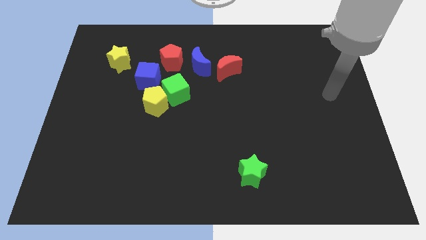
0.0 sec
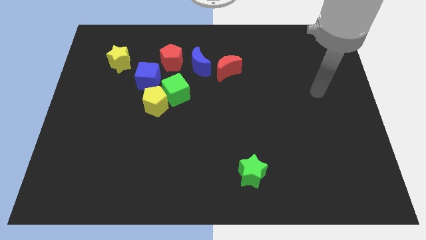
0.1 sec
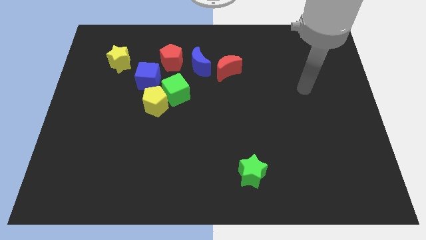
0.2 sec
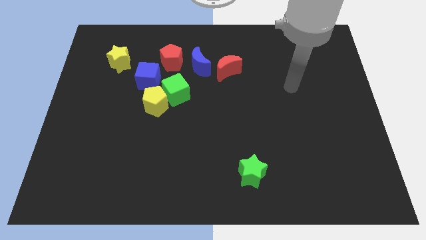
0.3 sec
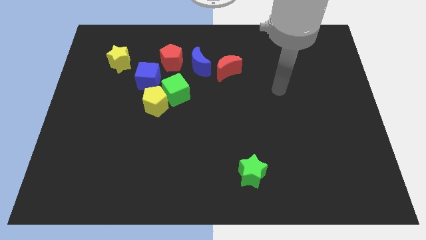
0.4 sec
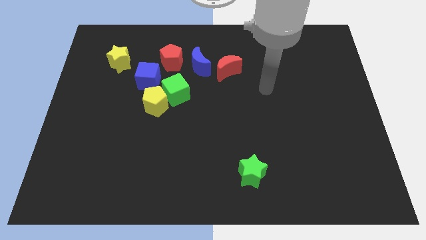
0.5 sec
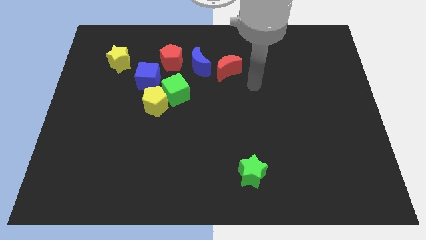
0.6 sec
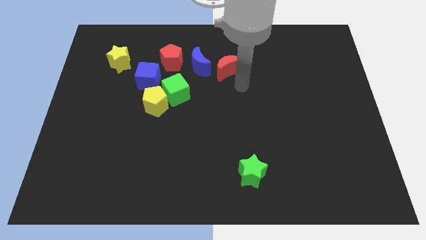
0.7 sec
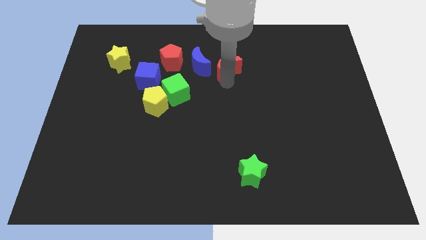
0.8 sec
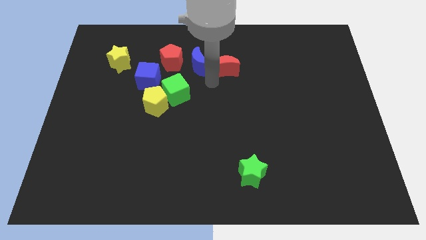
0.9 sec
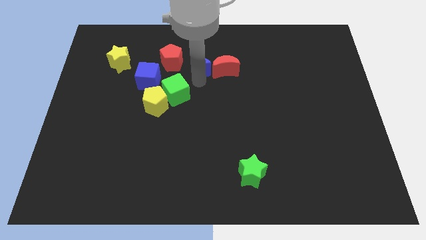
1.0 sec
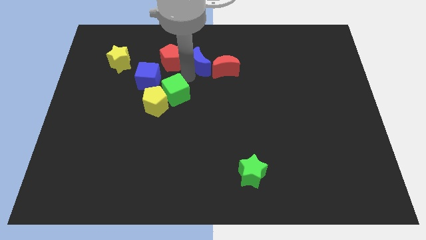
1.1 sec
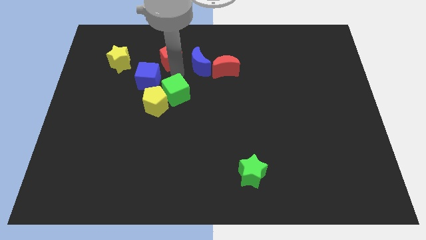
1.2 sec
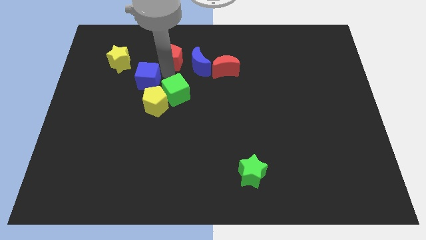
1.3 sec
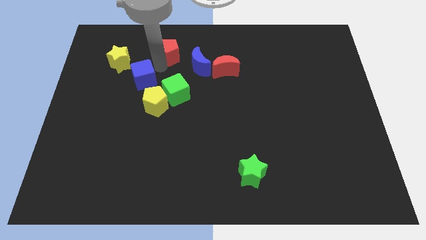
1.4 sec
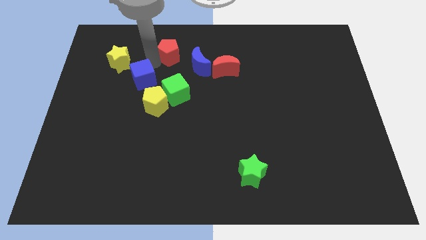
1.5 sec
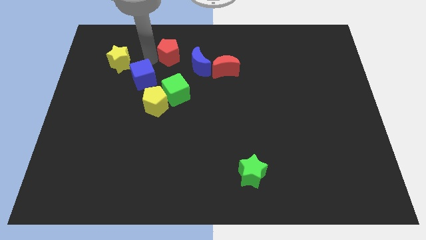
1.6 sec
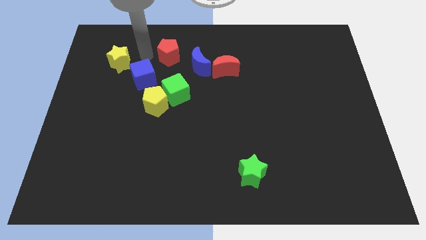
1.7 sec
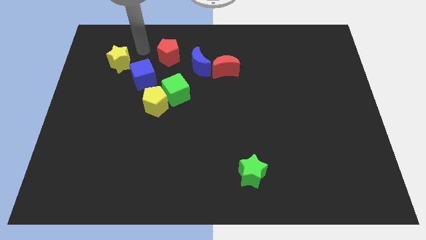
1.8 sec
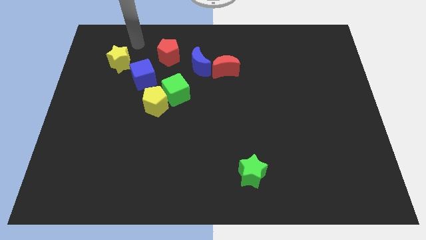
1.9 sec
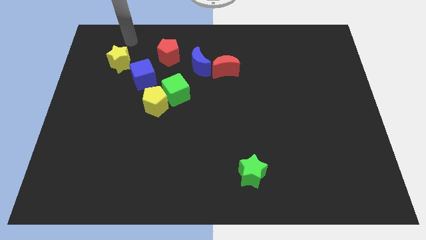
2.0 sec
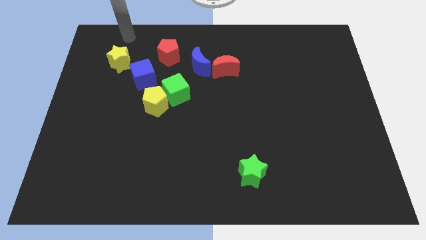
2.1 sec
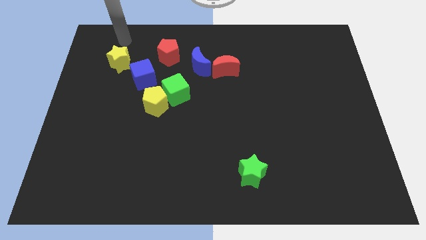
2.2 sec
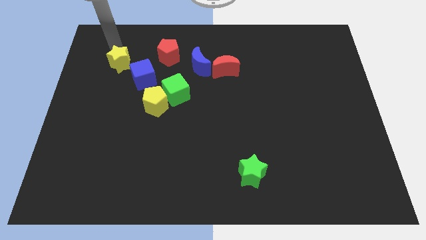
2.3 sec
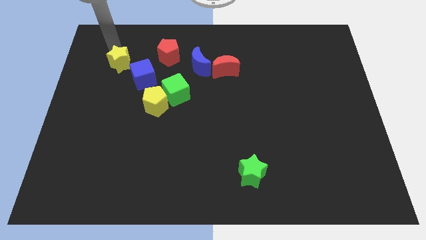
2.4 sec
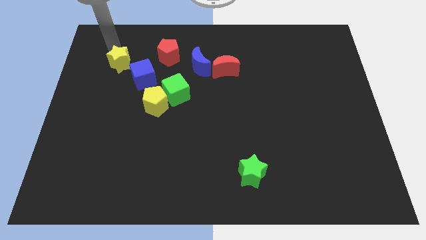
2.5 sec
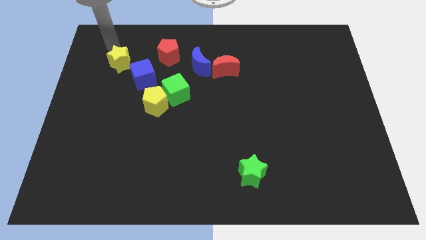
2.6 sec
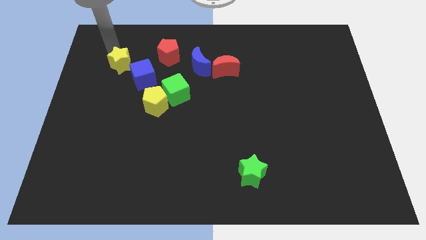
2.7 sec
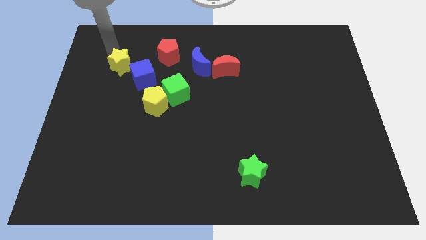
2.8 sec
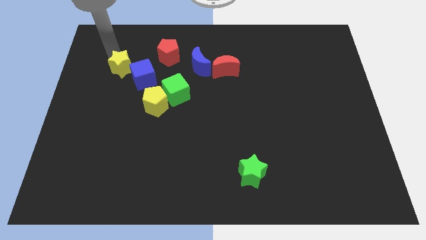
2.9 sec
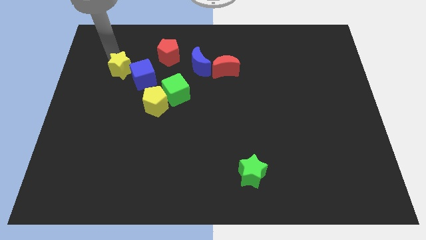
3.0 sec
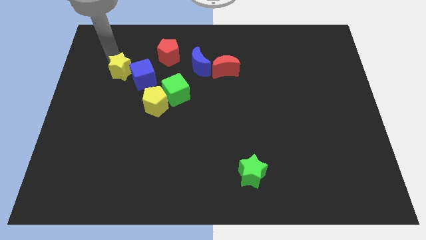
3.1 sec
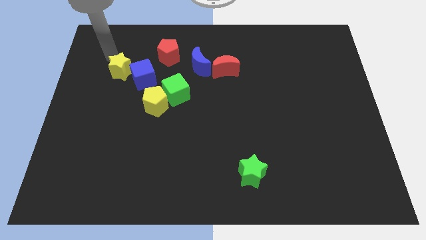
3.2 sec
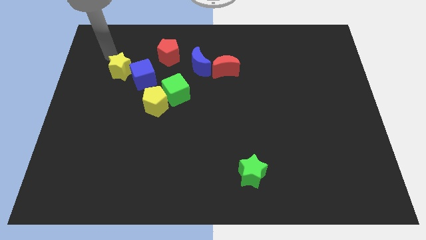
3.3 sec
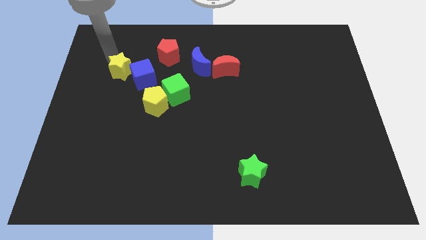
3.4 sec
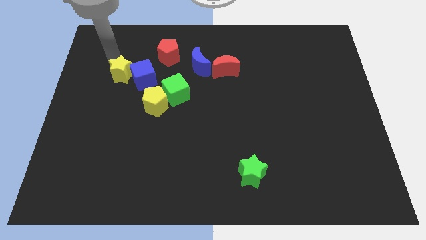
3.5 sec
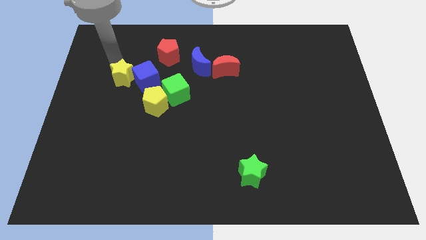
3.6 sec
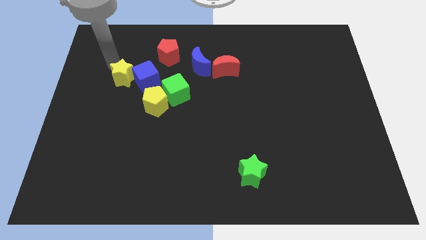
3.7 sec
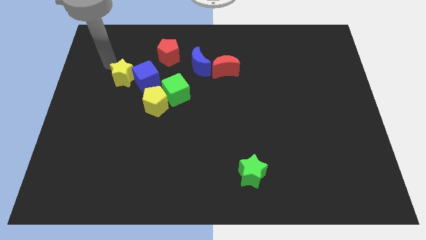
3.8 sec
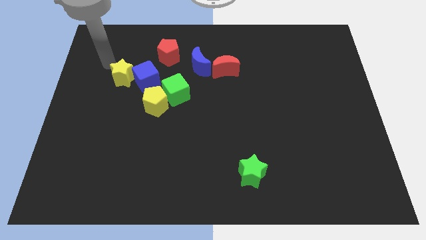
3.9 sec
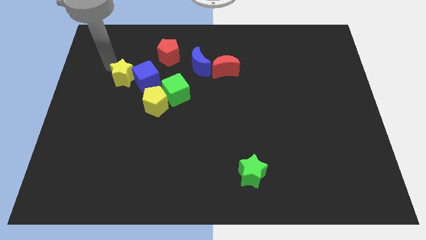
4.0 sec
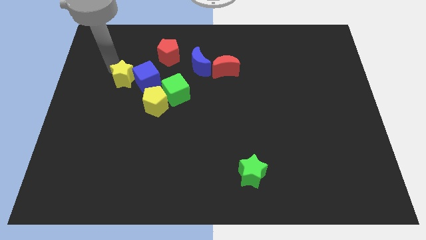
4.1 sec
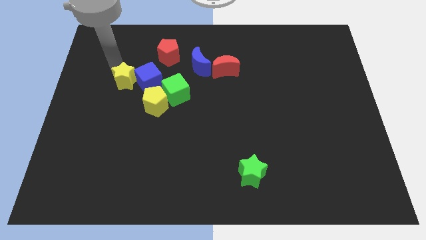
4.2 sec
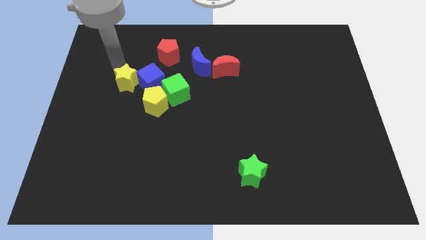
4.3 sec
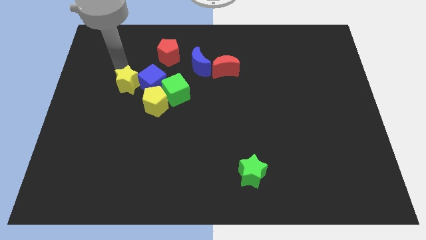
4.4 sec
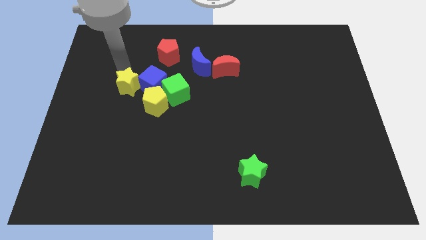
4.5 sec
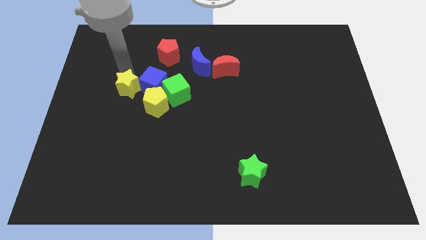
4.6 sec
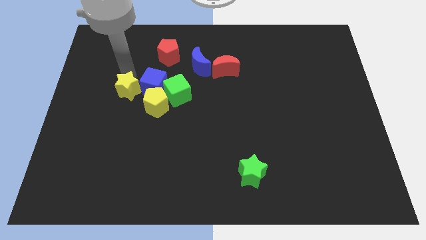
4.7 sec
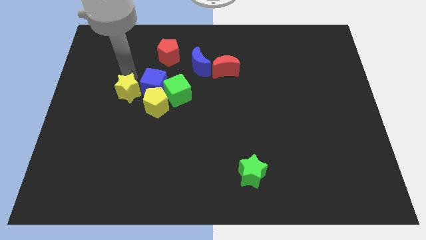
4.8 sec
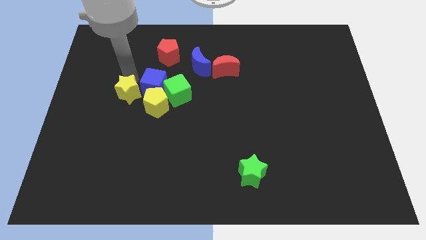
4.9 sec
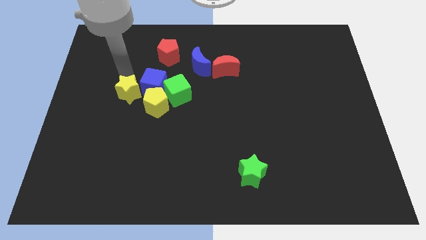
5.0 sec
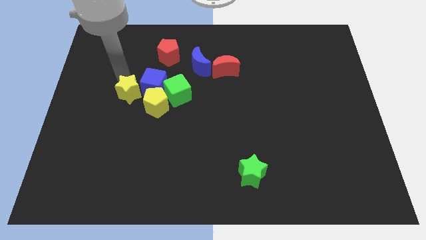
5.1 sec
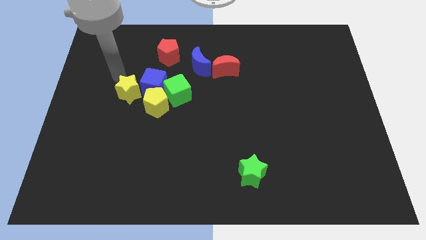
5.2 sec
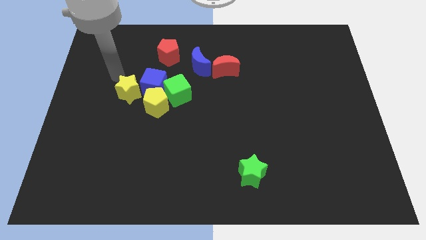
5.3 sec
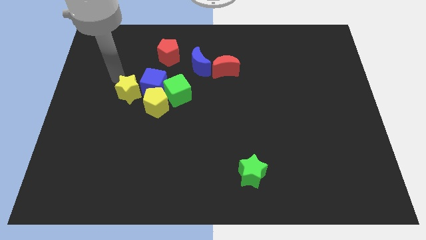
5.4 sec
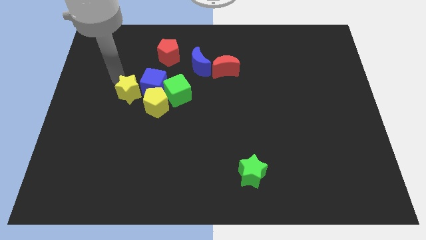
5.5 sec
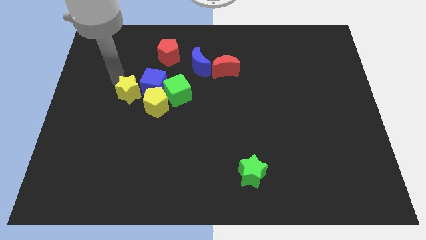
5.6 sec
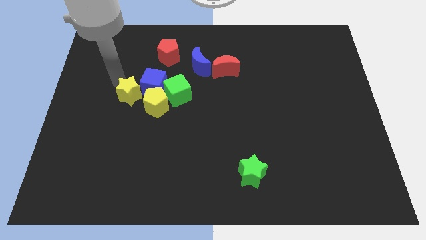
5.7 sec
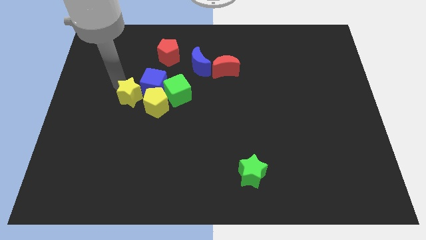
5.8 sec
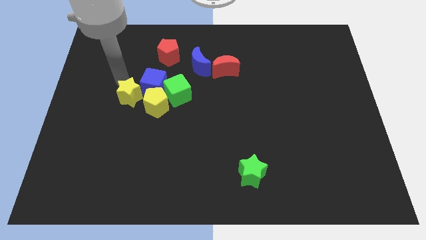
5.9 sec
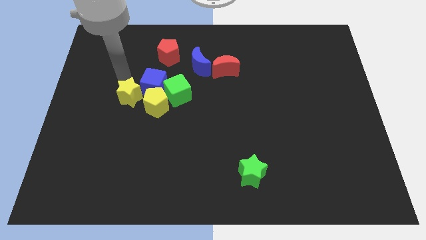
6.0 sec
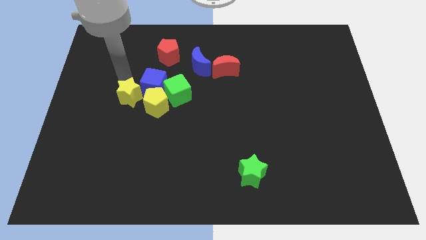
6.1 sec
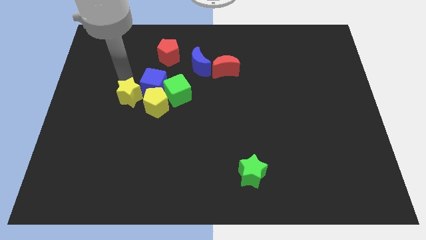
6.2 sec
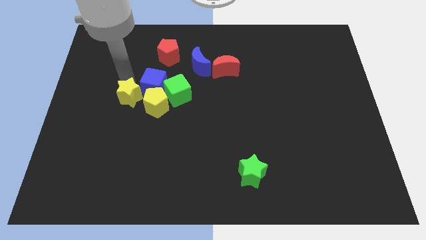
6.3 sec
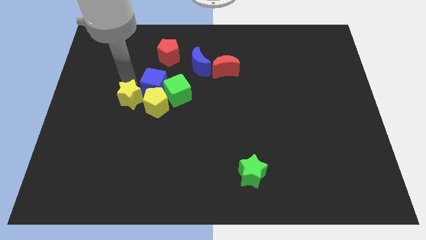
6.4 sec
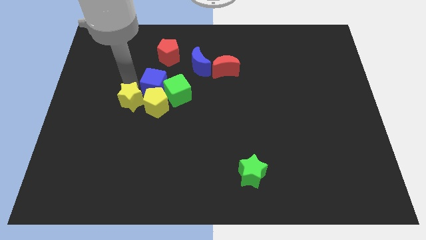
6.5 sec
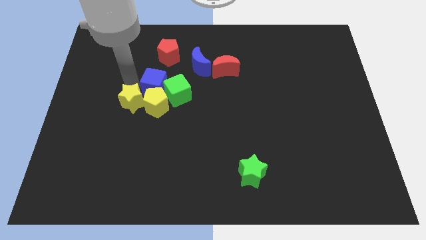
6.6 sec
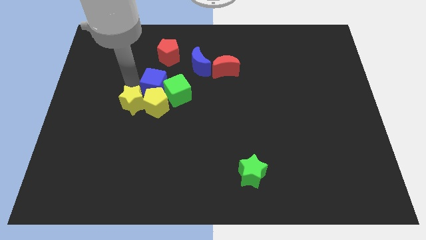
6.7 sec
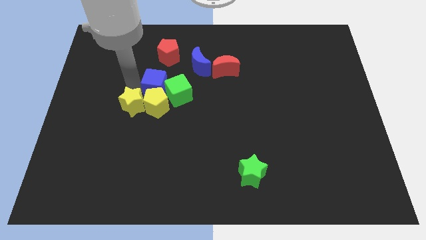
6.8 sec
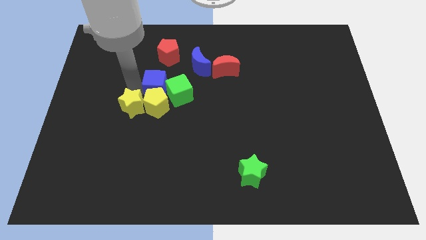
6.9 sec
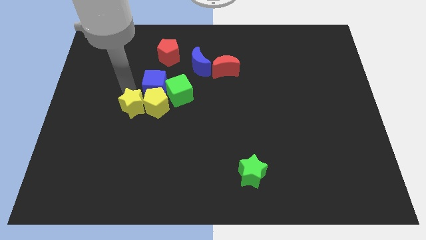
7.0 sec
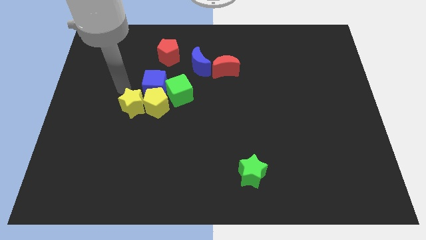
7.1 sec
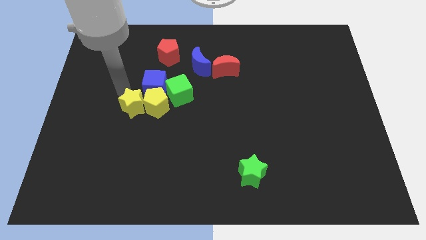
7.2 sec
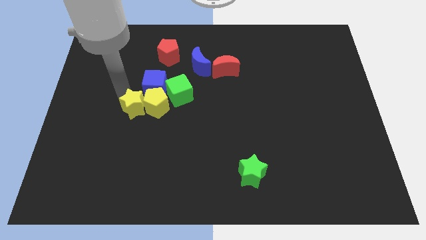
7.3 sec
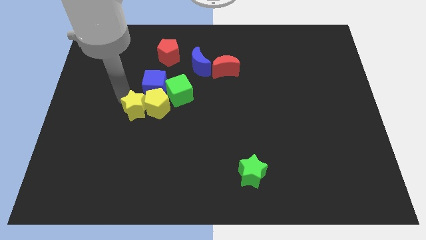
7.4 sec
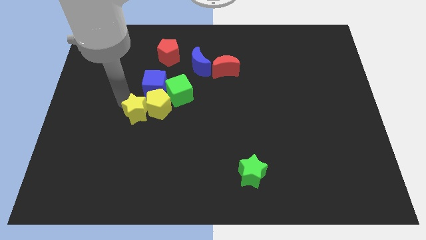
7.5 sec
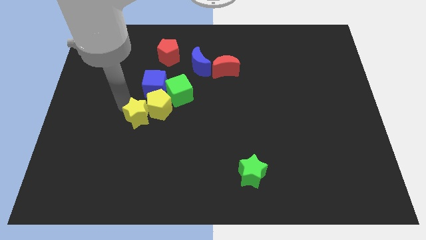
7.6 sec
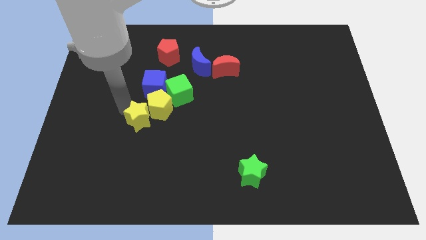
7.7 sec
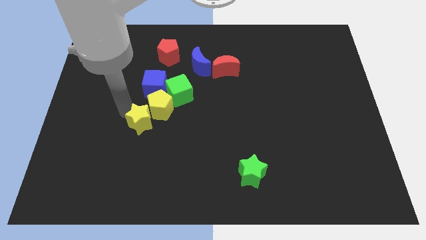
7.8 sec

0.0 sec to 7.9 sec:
move the yellow star to the bottom side of the yellow pentagon
